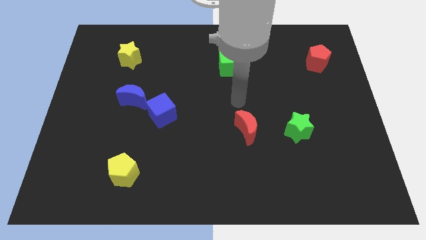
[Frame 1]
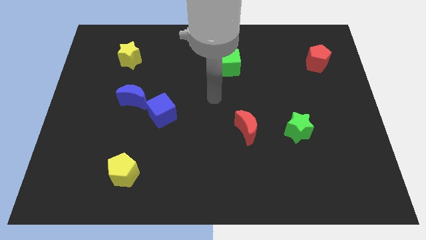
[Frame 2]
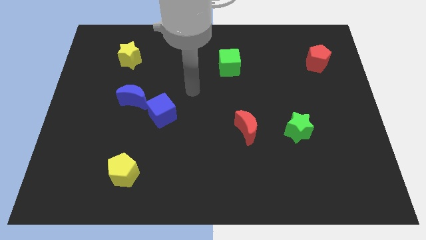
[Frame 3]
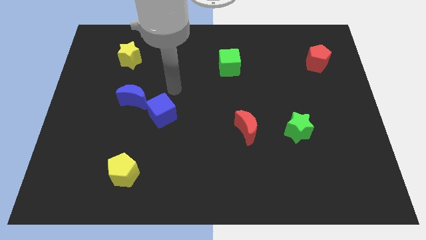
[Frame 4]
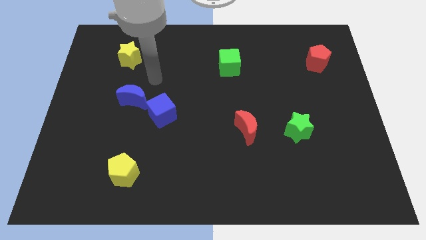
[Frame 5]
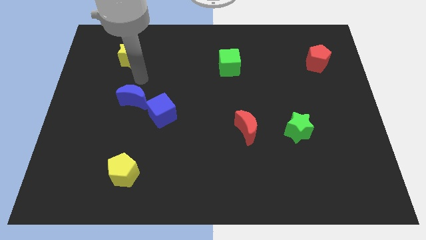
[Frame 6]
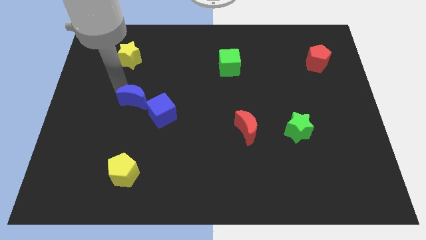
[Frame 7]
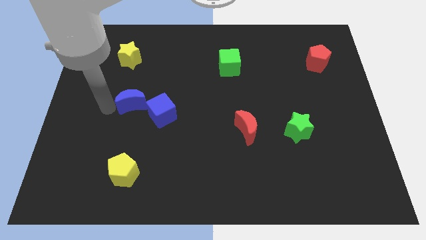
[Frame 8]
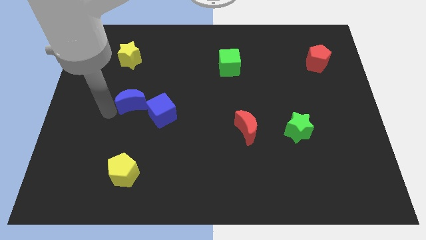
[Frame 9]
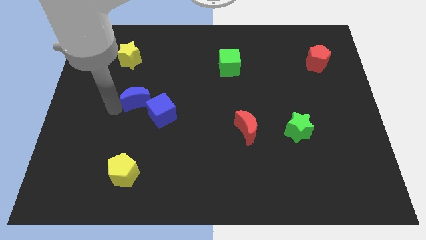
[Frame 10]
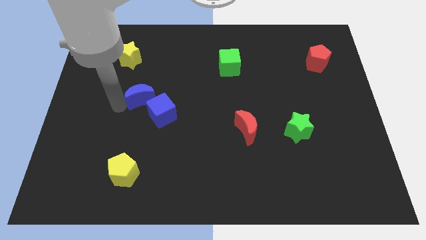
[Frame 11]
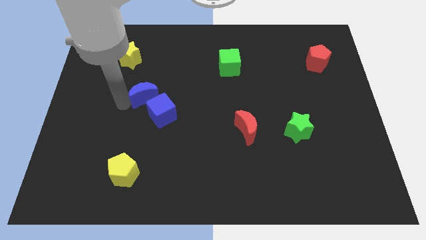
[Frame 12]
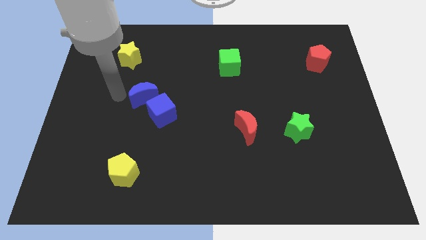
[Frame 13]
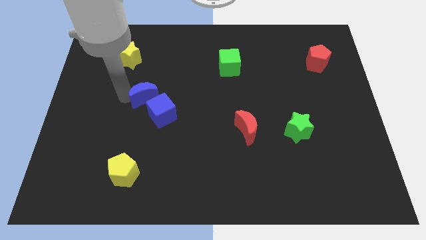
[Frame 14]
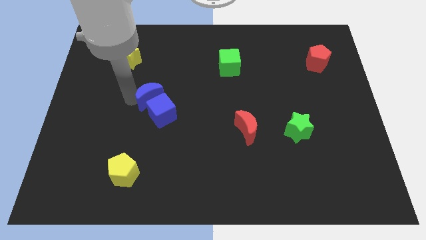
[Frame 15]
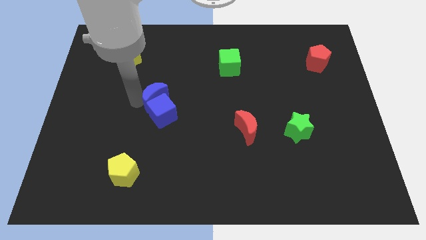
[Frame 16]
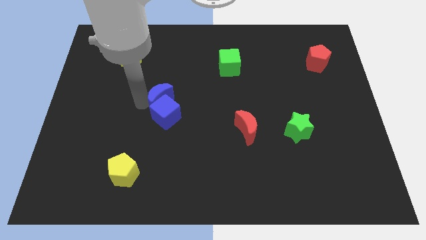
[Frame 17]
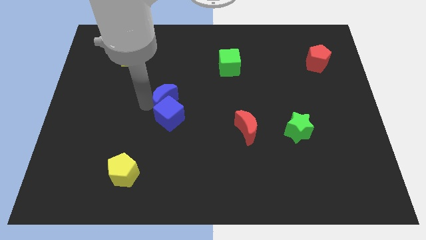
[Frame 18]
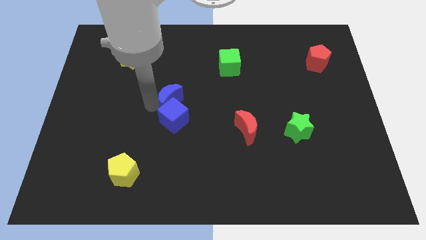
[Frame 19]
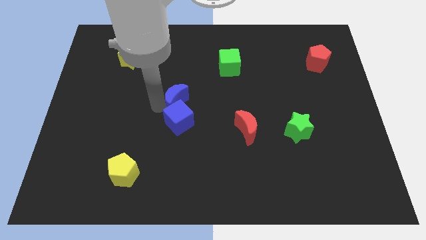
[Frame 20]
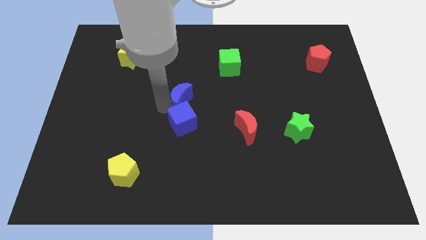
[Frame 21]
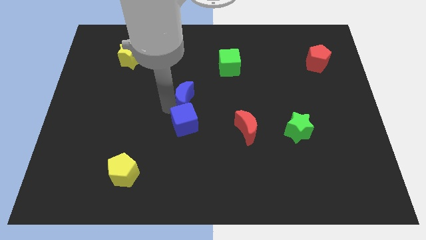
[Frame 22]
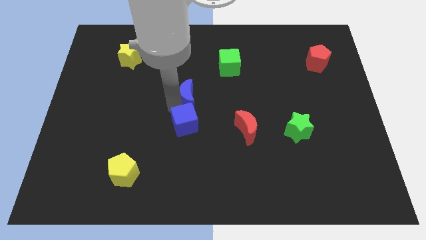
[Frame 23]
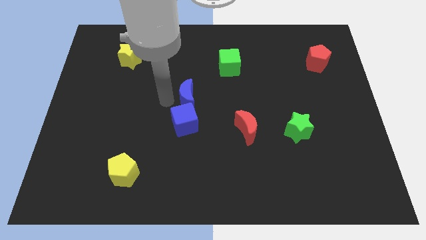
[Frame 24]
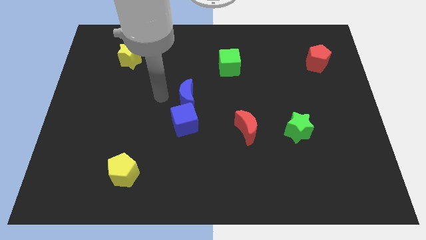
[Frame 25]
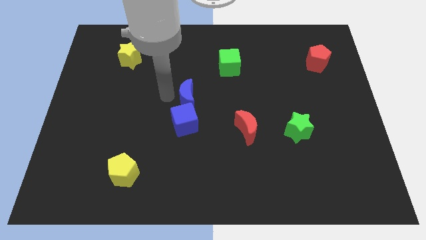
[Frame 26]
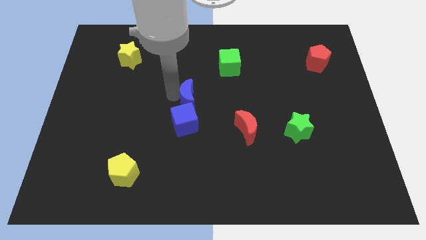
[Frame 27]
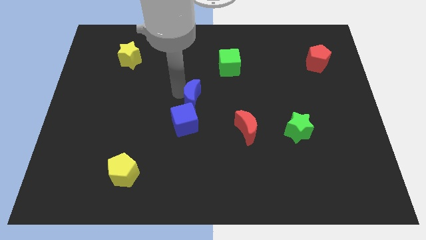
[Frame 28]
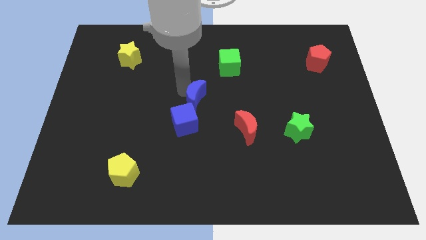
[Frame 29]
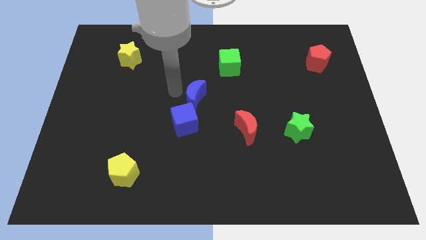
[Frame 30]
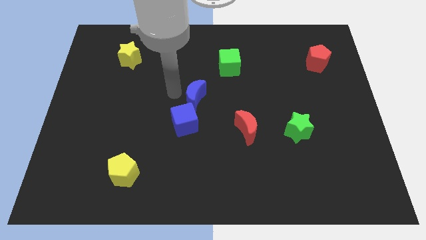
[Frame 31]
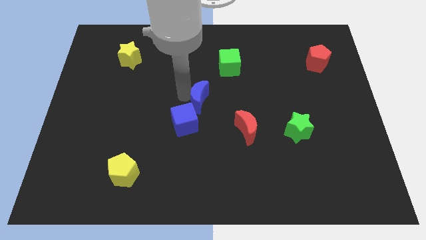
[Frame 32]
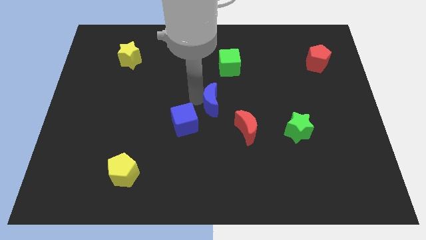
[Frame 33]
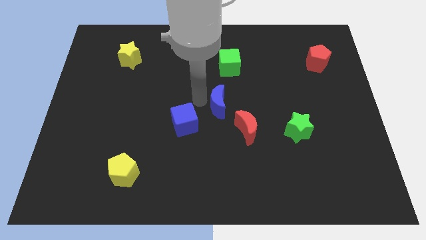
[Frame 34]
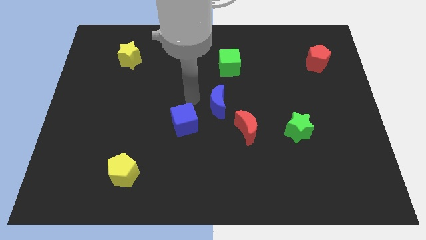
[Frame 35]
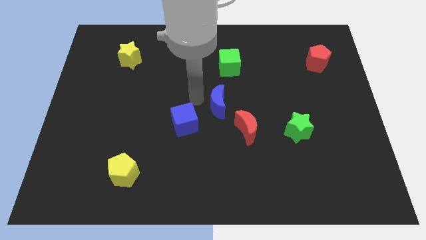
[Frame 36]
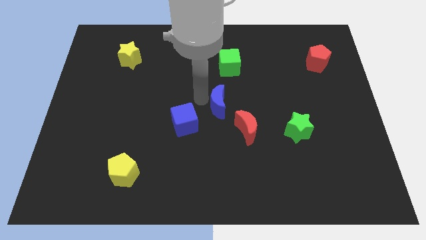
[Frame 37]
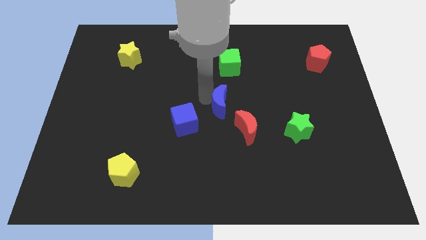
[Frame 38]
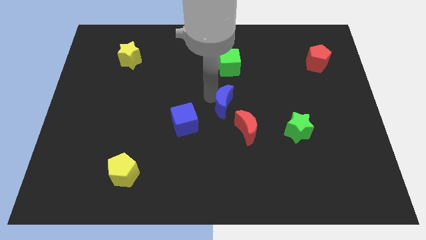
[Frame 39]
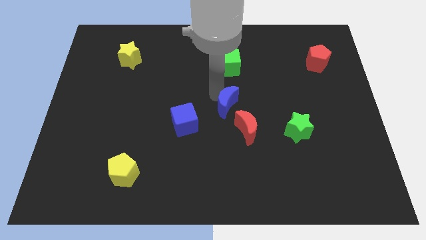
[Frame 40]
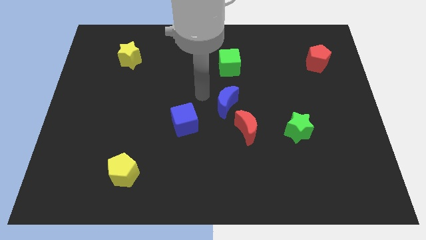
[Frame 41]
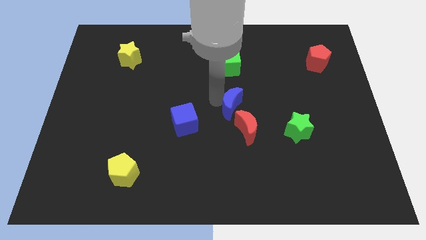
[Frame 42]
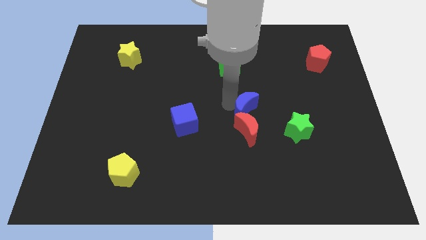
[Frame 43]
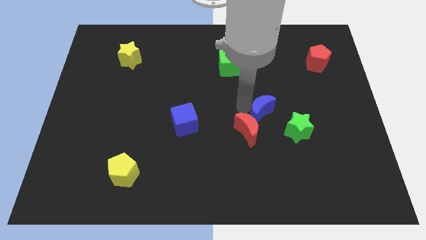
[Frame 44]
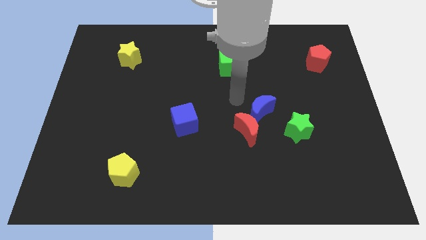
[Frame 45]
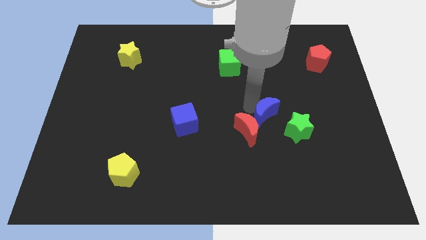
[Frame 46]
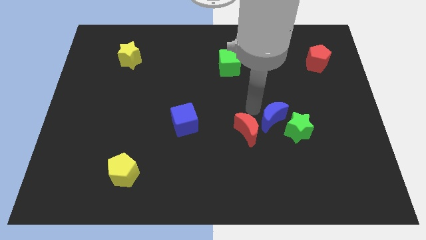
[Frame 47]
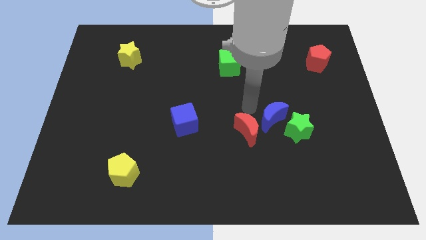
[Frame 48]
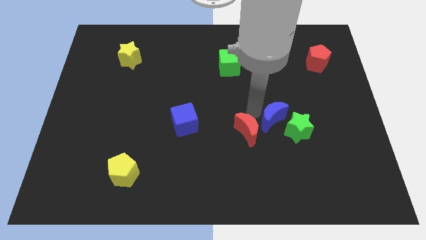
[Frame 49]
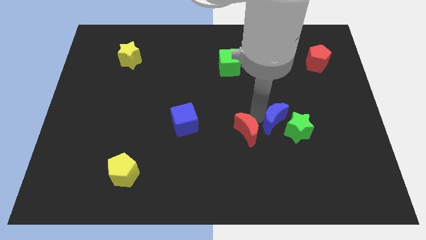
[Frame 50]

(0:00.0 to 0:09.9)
slide the blue moon close to the green star

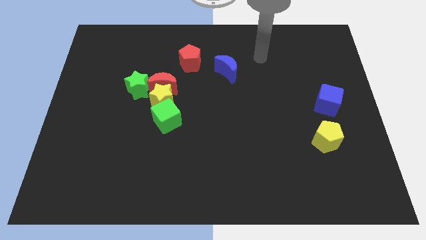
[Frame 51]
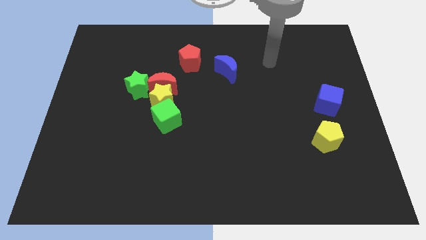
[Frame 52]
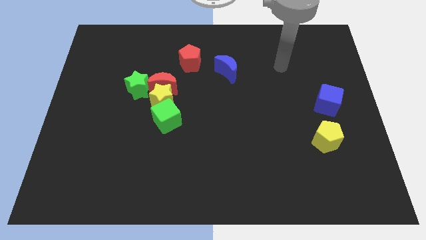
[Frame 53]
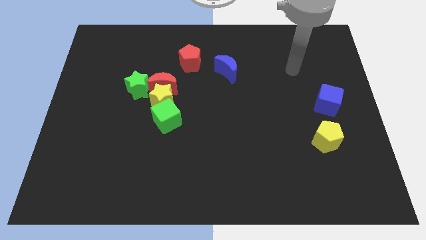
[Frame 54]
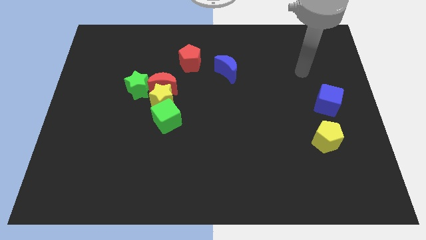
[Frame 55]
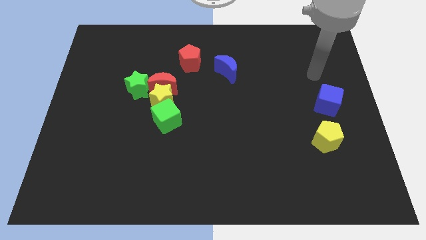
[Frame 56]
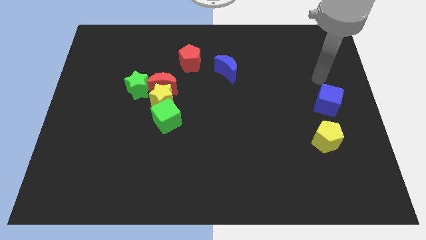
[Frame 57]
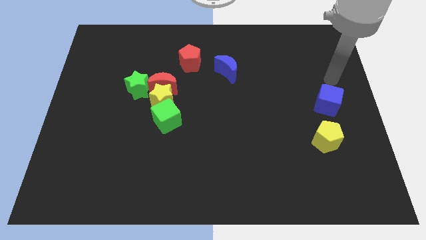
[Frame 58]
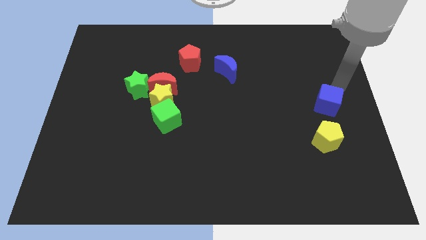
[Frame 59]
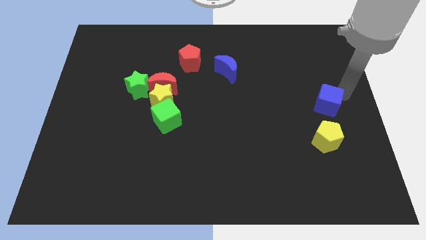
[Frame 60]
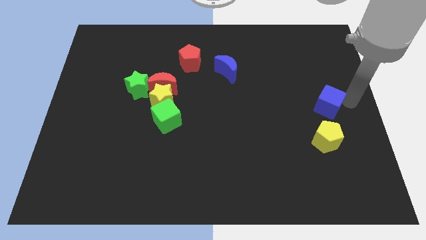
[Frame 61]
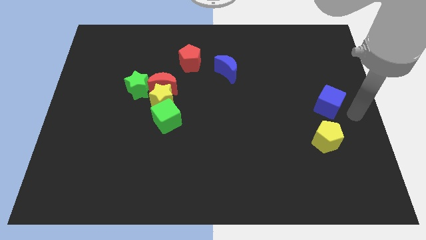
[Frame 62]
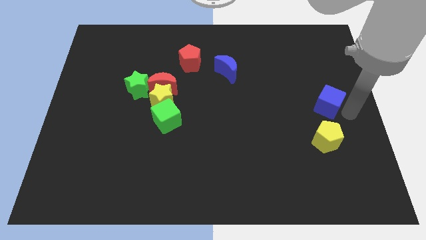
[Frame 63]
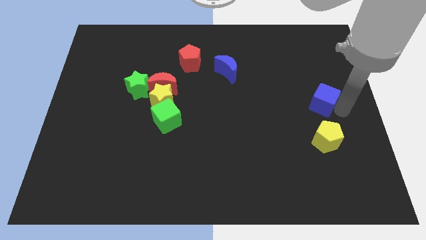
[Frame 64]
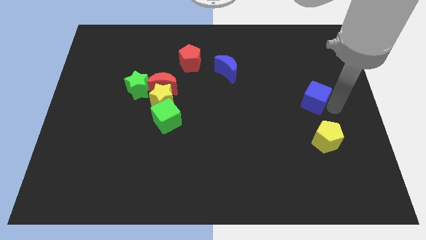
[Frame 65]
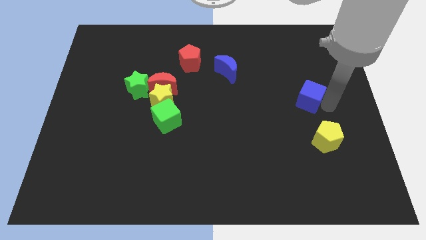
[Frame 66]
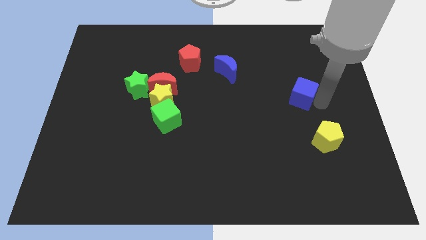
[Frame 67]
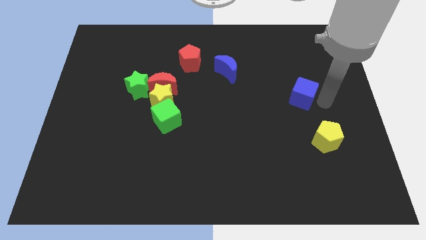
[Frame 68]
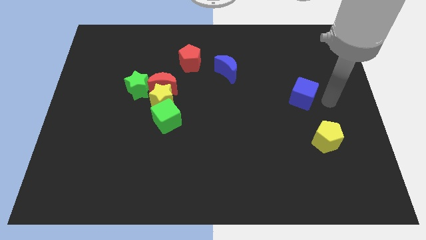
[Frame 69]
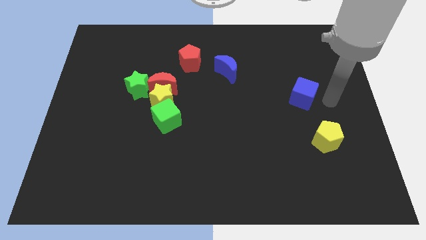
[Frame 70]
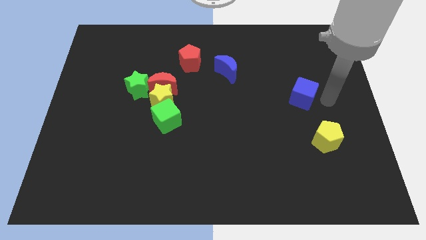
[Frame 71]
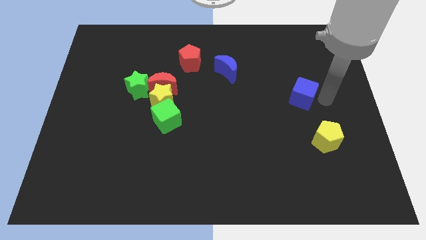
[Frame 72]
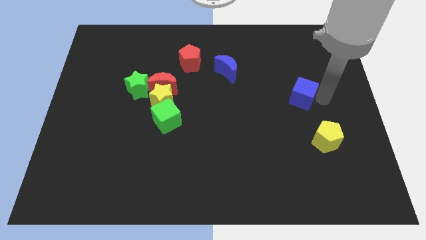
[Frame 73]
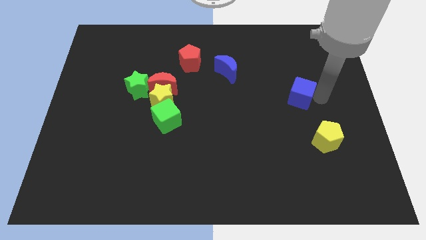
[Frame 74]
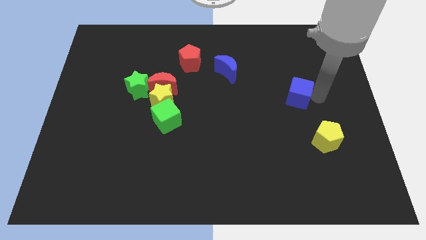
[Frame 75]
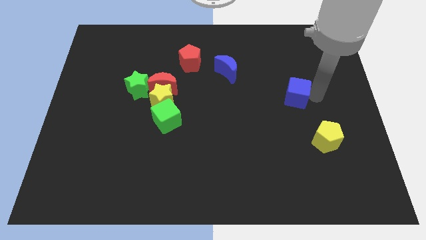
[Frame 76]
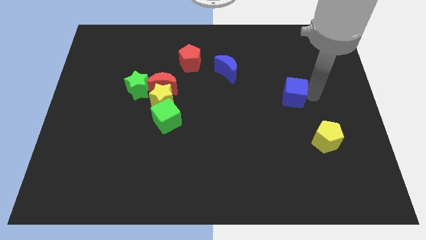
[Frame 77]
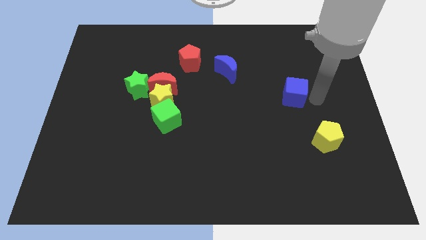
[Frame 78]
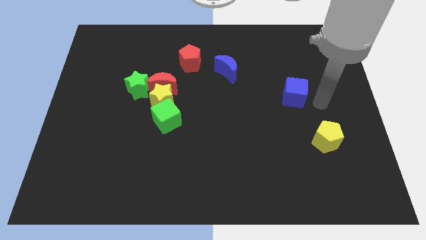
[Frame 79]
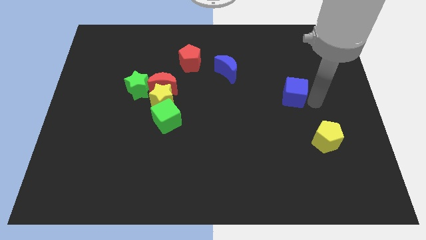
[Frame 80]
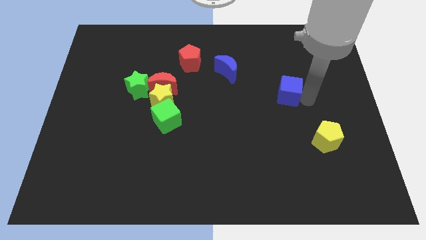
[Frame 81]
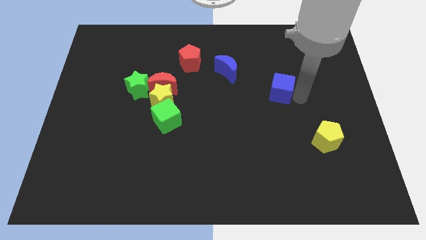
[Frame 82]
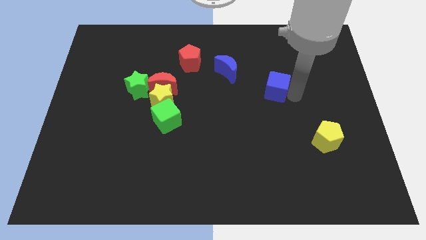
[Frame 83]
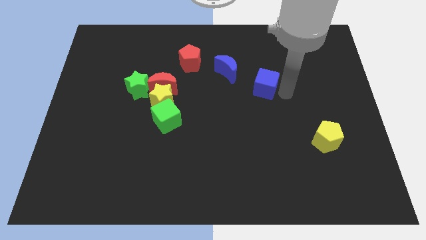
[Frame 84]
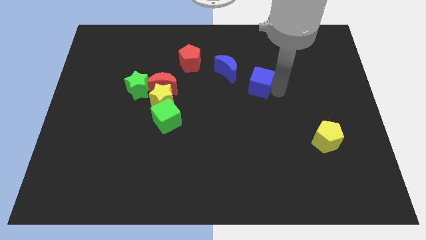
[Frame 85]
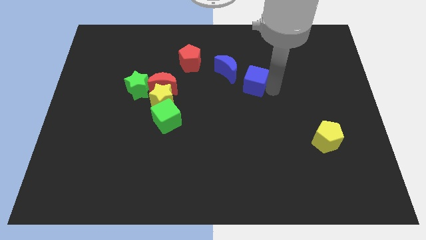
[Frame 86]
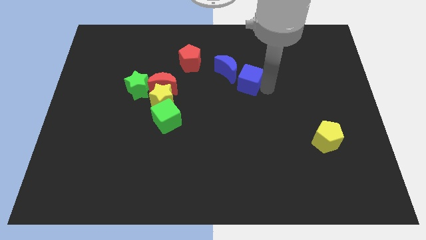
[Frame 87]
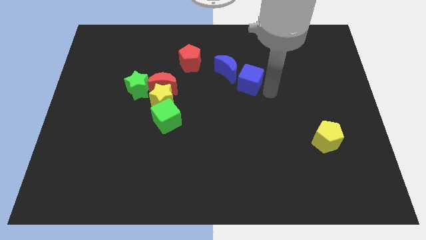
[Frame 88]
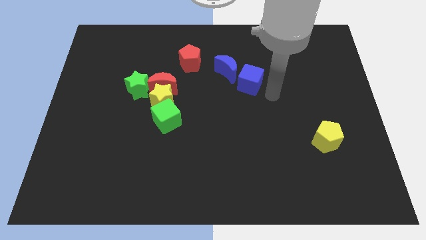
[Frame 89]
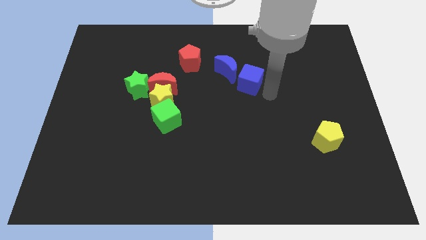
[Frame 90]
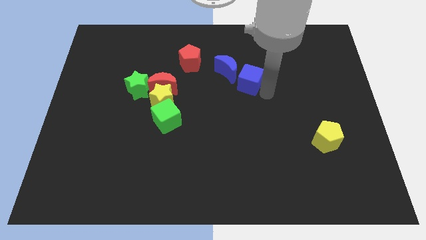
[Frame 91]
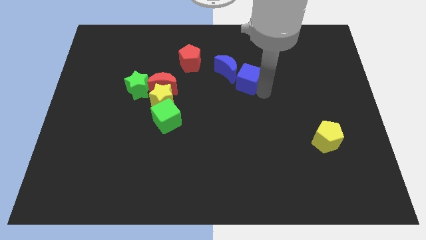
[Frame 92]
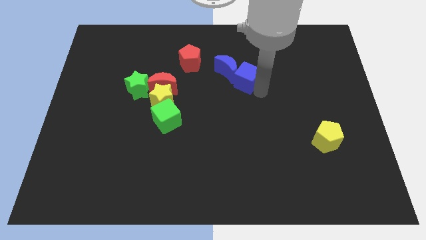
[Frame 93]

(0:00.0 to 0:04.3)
slide the blue cube close to the blue moon
